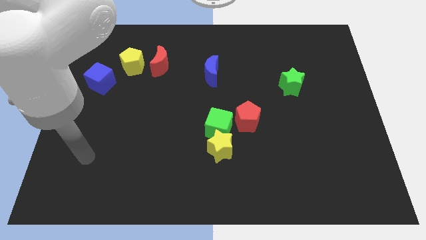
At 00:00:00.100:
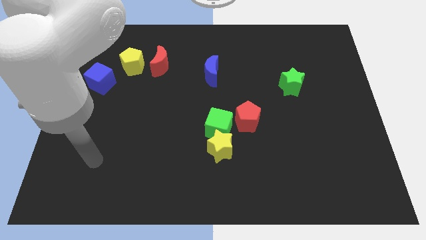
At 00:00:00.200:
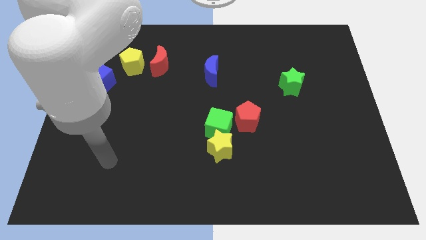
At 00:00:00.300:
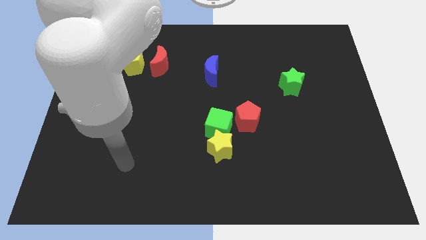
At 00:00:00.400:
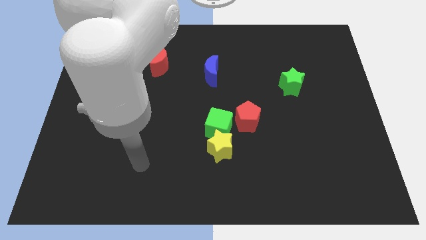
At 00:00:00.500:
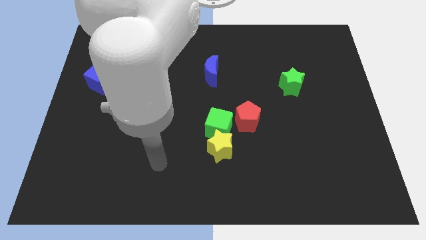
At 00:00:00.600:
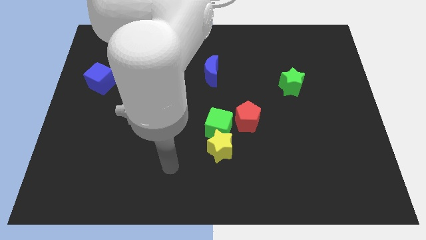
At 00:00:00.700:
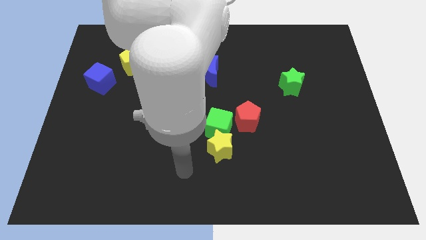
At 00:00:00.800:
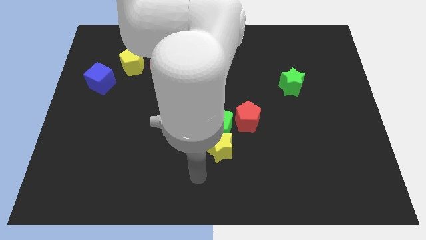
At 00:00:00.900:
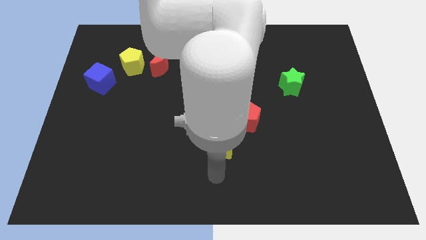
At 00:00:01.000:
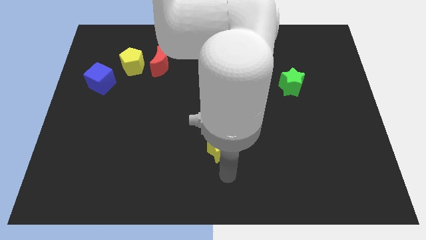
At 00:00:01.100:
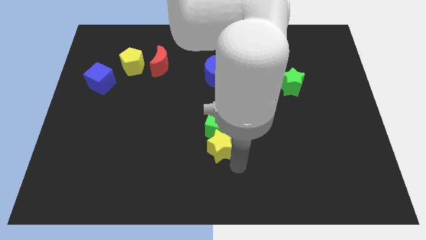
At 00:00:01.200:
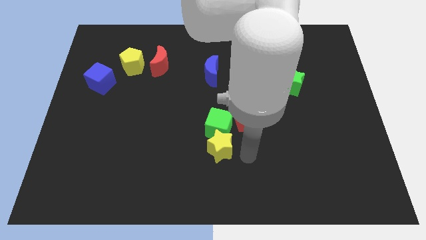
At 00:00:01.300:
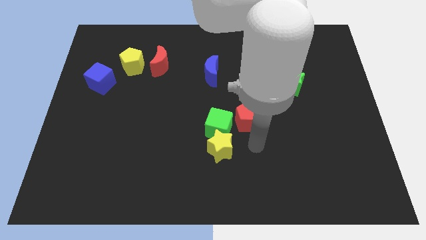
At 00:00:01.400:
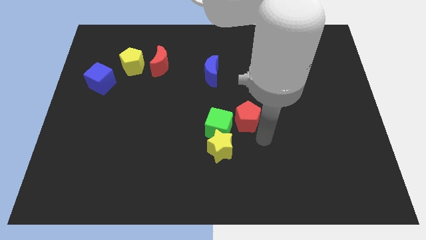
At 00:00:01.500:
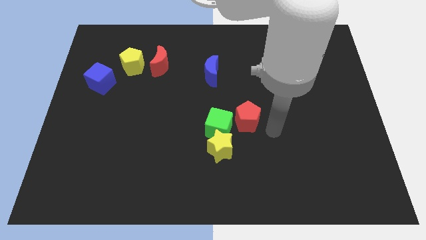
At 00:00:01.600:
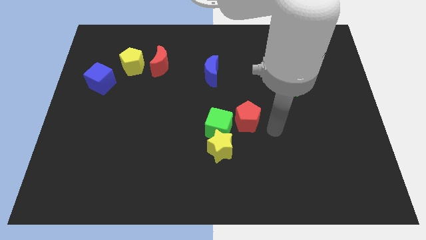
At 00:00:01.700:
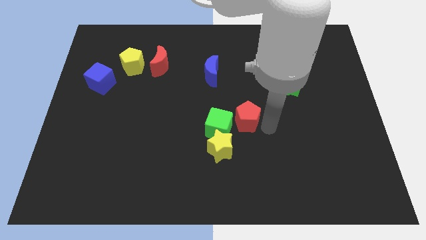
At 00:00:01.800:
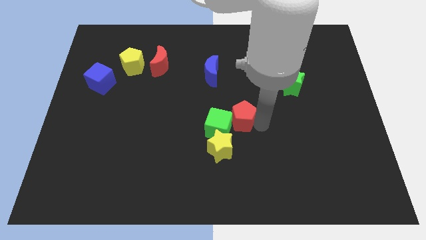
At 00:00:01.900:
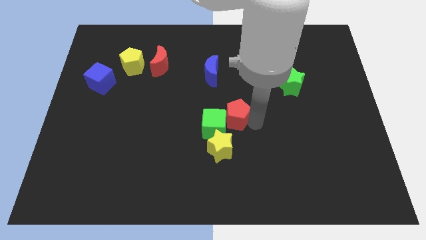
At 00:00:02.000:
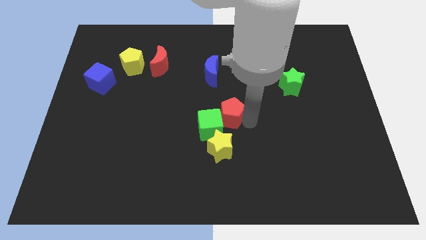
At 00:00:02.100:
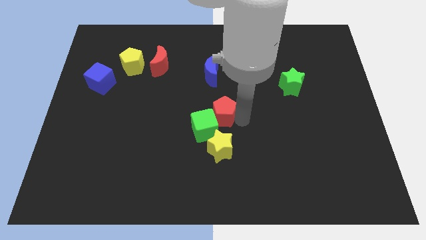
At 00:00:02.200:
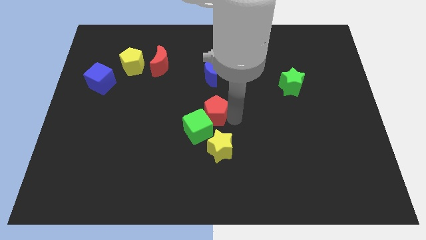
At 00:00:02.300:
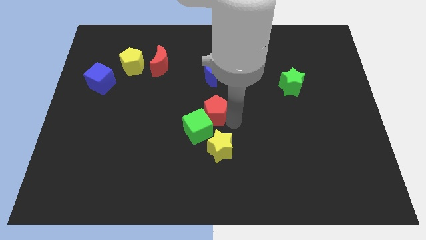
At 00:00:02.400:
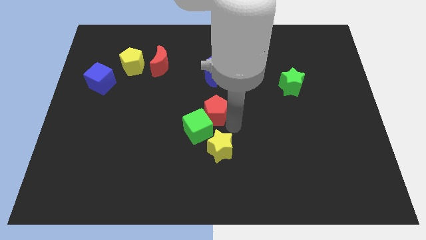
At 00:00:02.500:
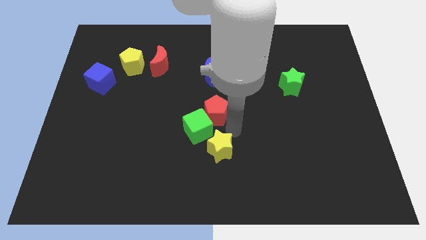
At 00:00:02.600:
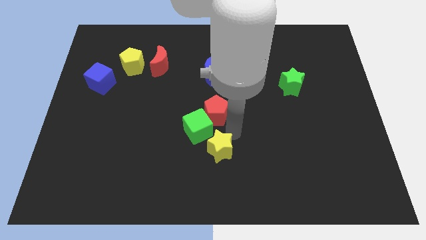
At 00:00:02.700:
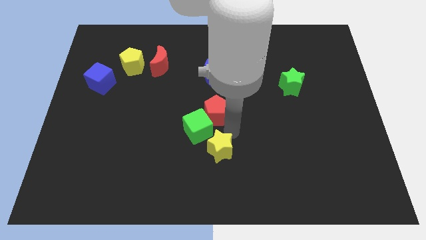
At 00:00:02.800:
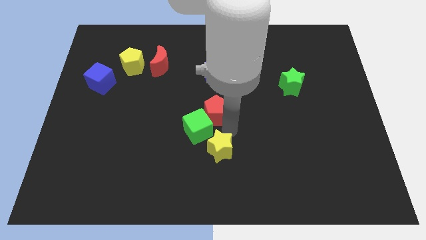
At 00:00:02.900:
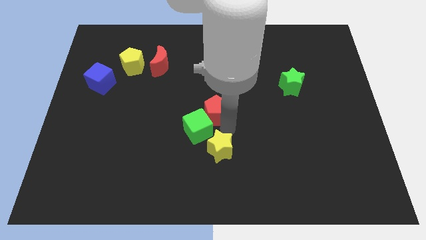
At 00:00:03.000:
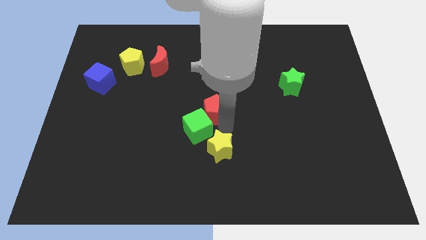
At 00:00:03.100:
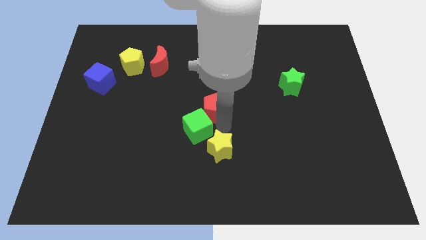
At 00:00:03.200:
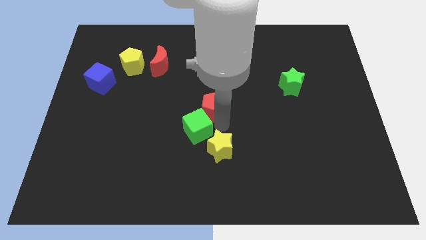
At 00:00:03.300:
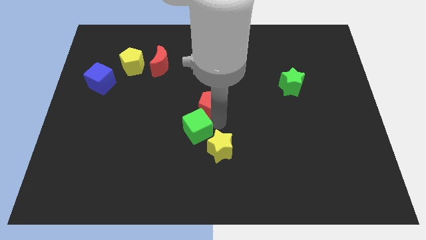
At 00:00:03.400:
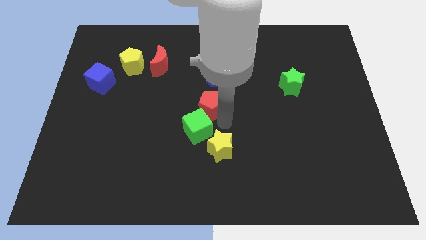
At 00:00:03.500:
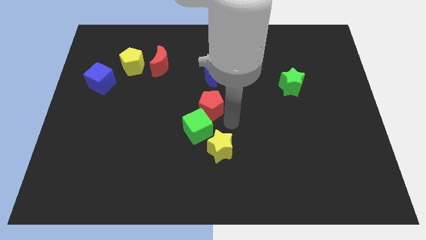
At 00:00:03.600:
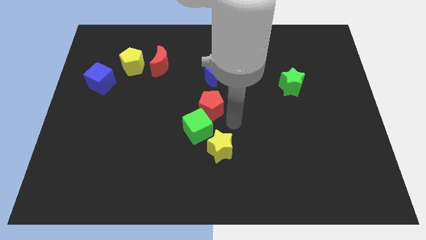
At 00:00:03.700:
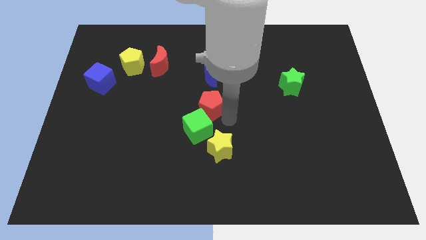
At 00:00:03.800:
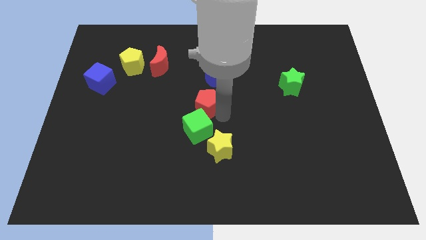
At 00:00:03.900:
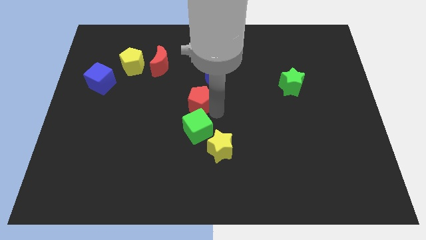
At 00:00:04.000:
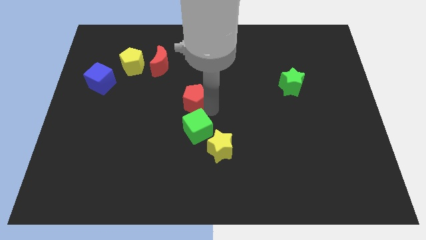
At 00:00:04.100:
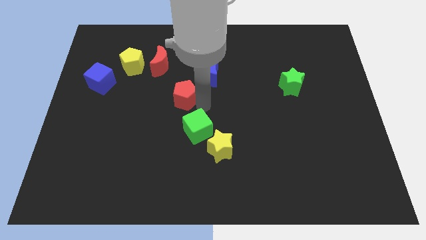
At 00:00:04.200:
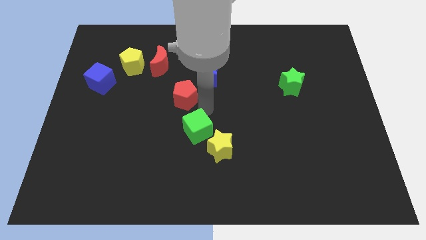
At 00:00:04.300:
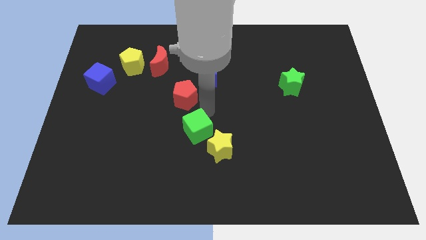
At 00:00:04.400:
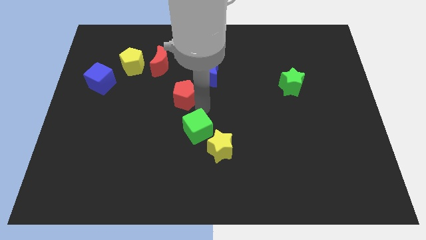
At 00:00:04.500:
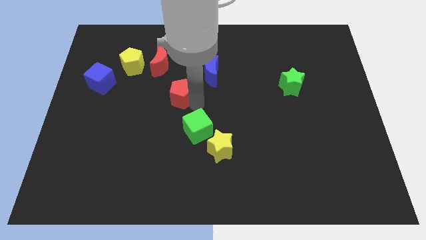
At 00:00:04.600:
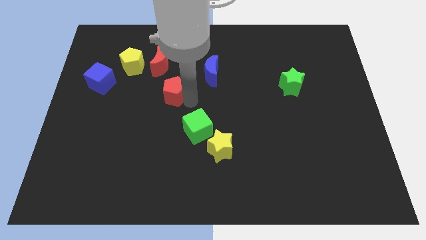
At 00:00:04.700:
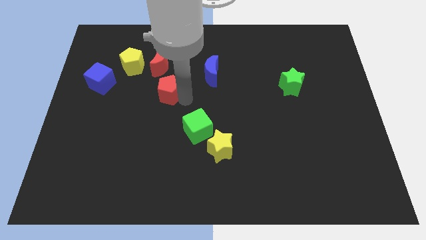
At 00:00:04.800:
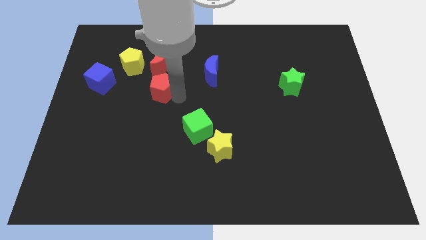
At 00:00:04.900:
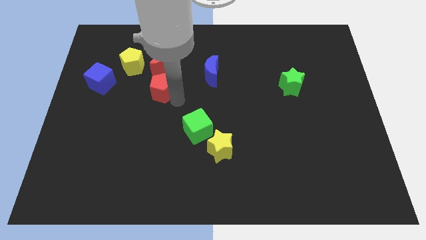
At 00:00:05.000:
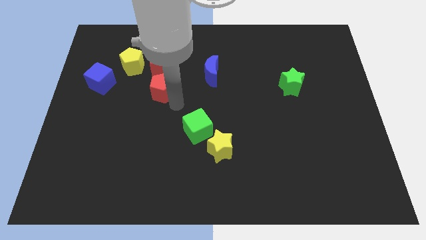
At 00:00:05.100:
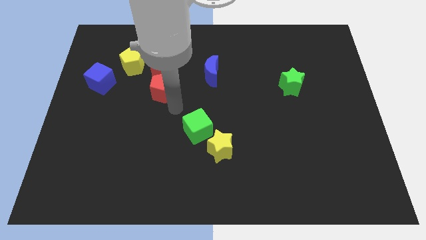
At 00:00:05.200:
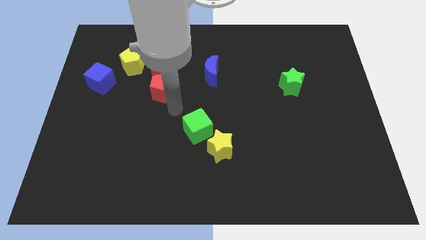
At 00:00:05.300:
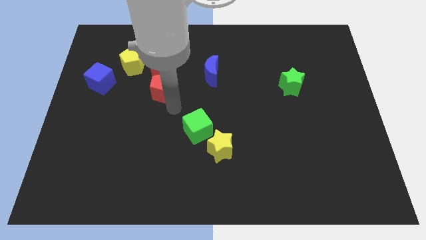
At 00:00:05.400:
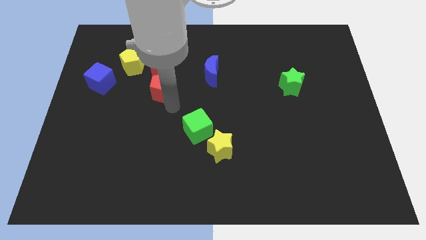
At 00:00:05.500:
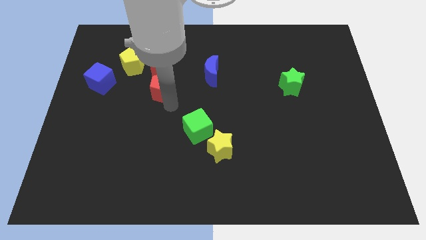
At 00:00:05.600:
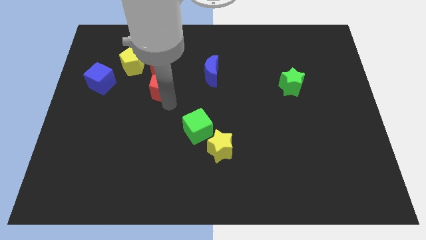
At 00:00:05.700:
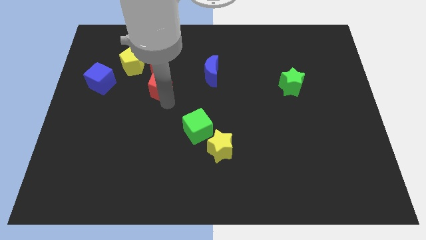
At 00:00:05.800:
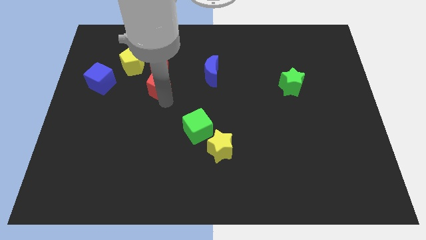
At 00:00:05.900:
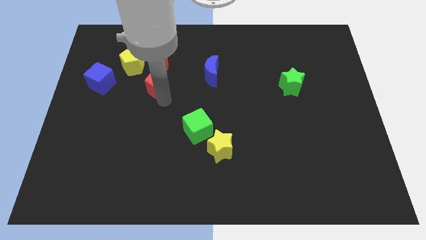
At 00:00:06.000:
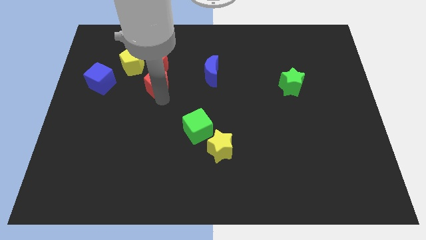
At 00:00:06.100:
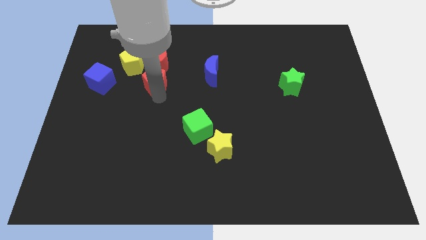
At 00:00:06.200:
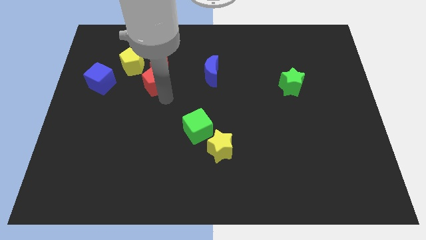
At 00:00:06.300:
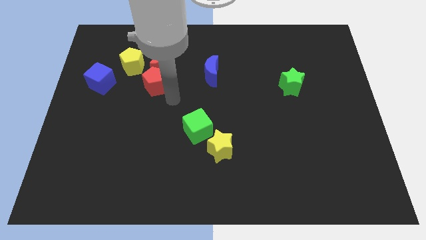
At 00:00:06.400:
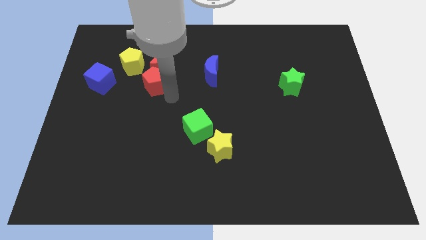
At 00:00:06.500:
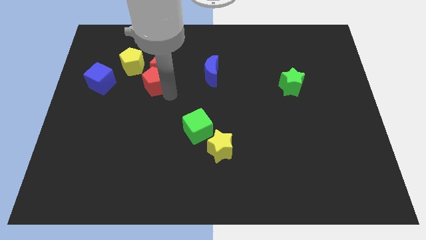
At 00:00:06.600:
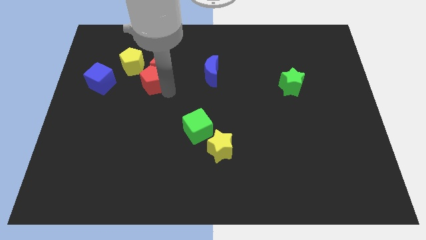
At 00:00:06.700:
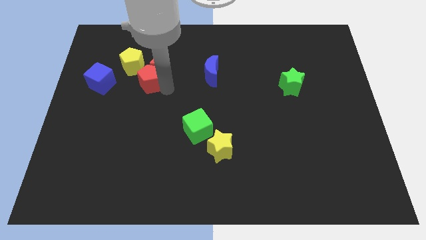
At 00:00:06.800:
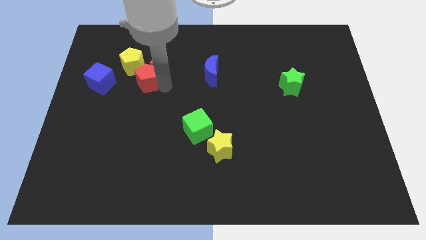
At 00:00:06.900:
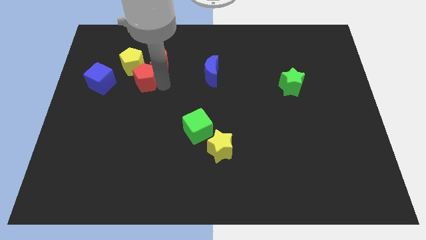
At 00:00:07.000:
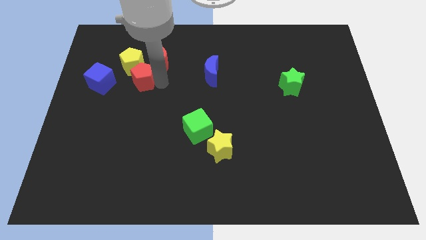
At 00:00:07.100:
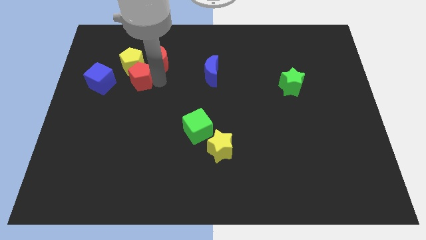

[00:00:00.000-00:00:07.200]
move the red pentagon close to the yellow pentagon
